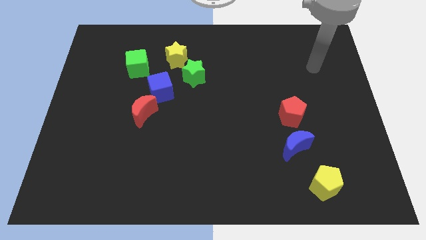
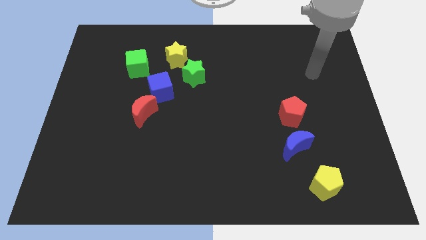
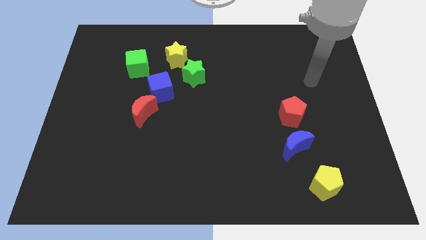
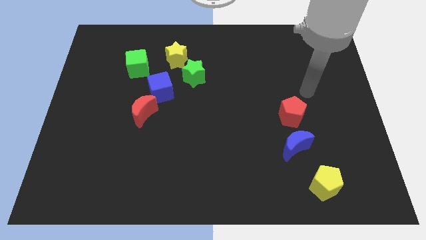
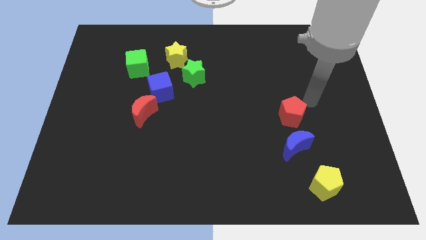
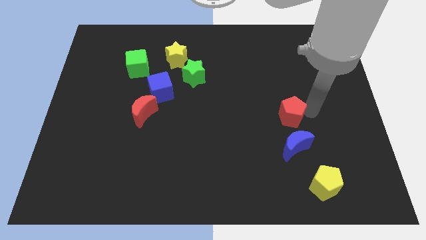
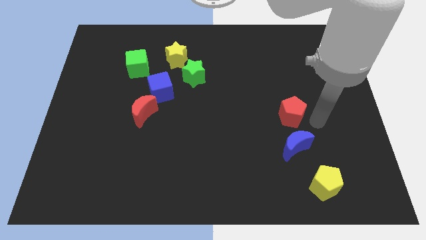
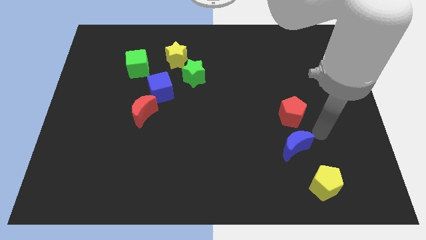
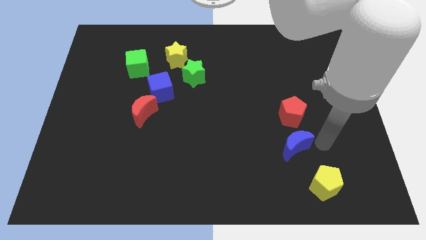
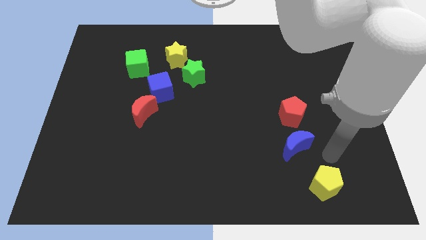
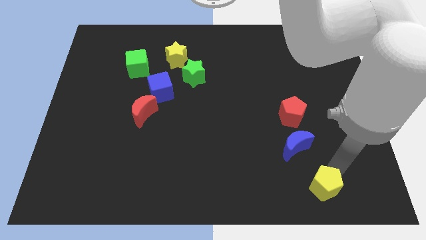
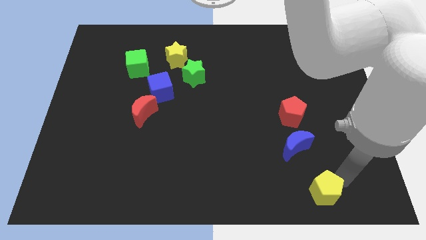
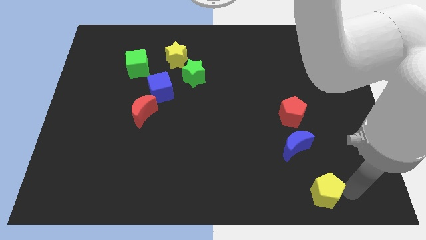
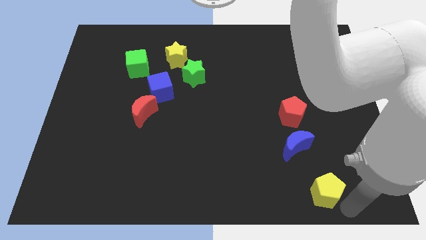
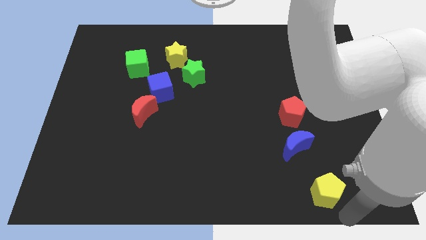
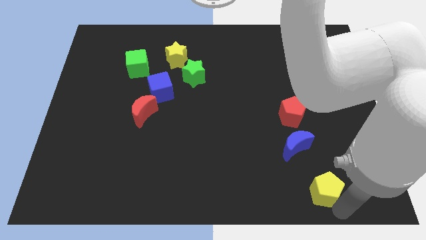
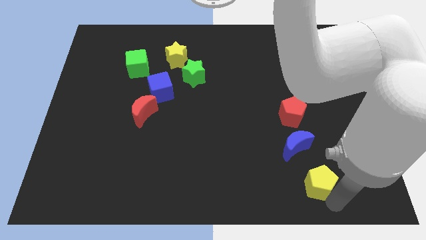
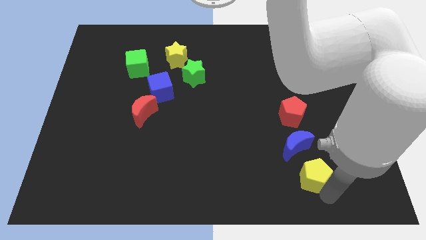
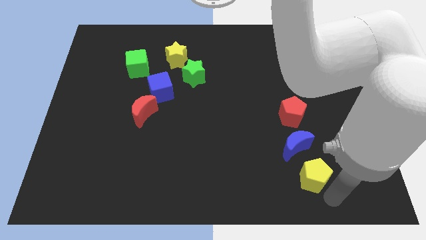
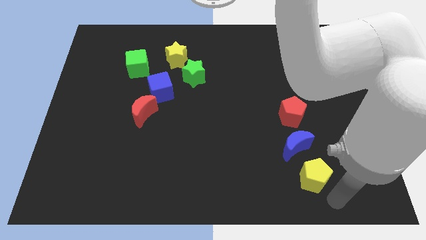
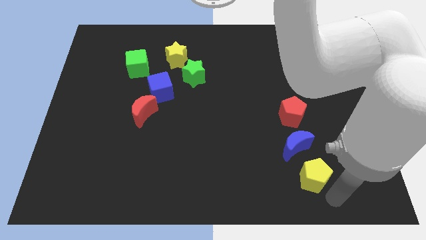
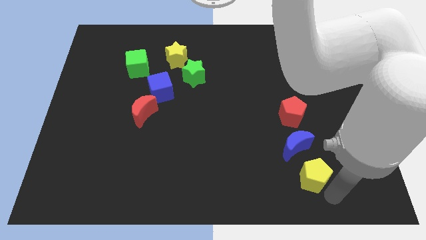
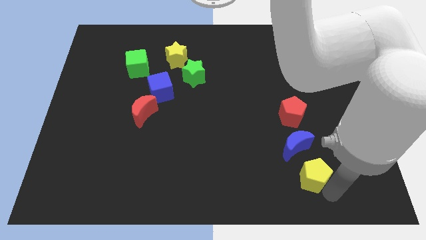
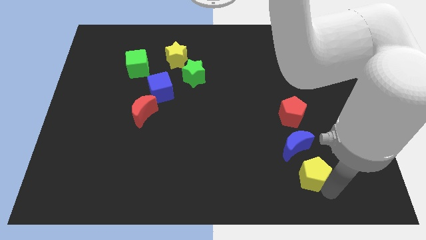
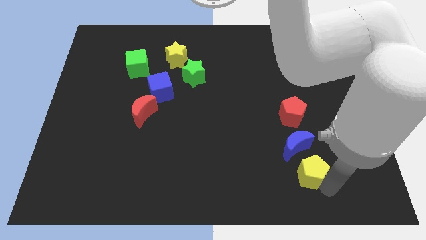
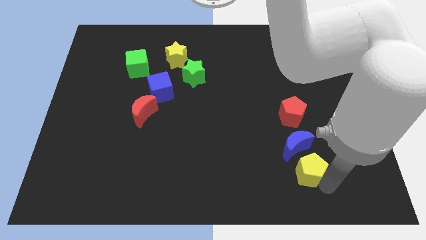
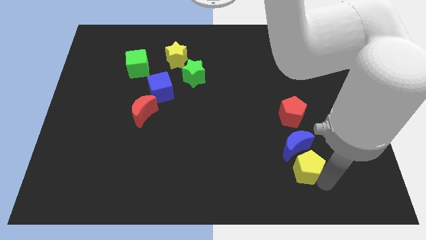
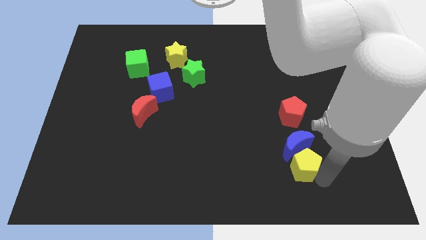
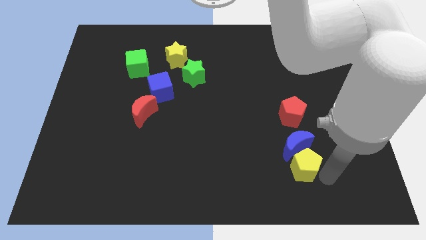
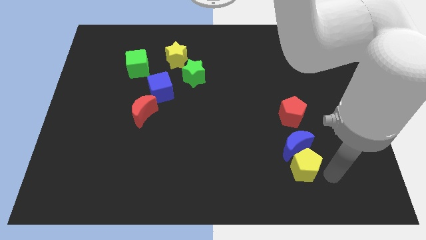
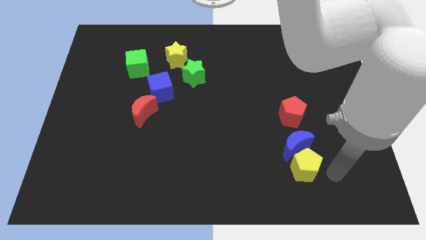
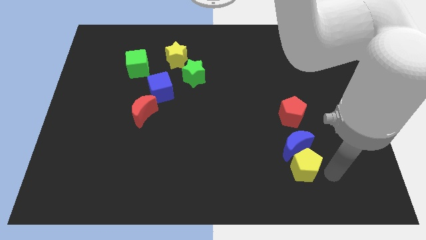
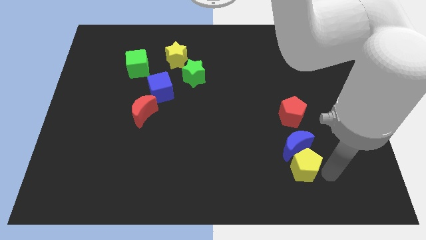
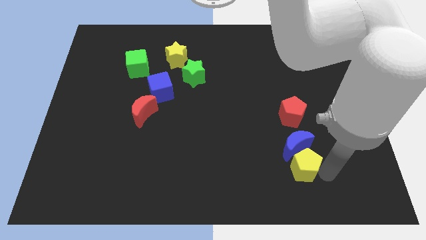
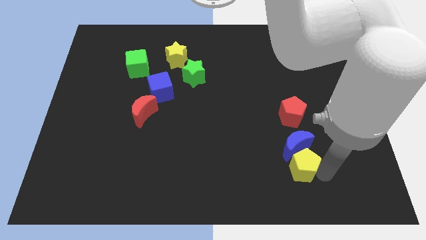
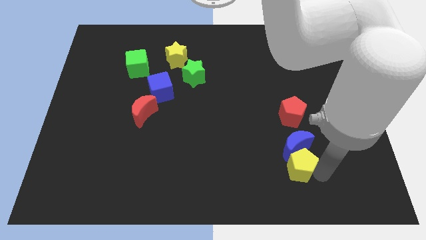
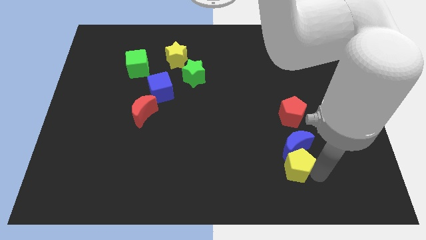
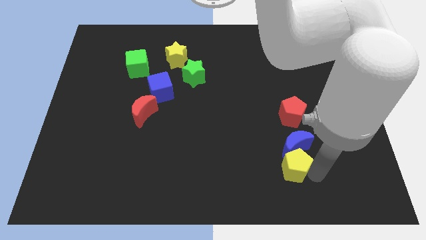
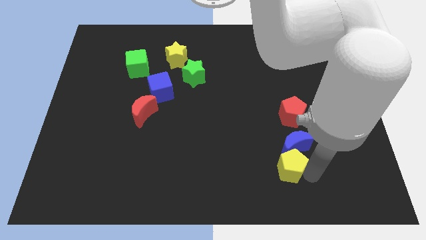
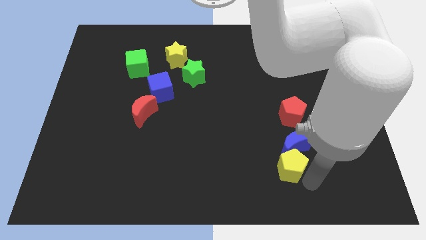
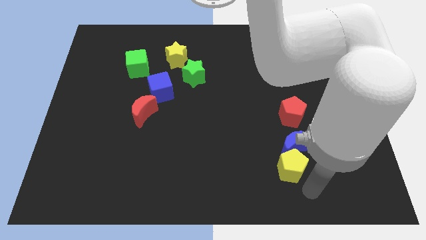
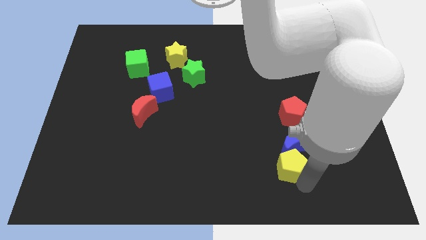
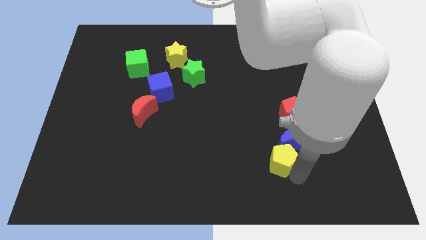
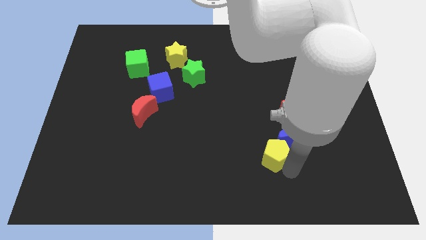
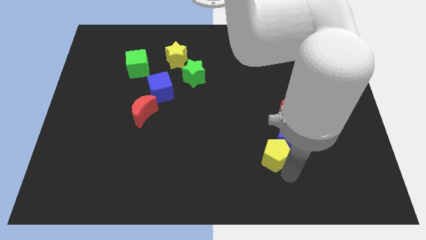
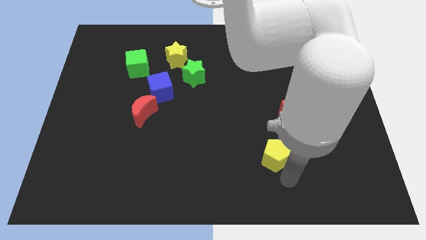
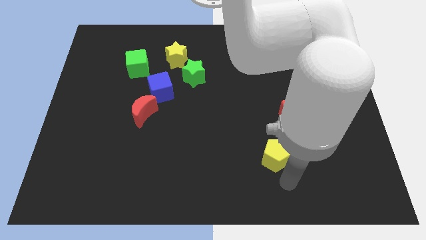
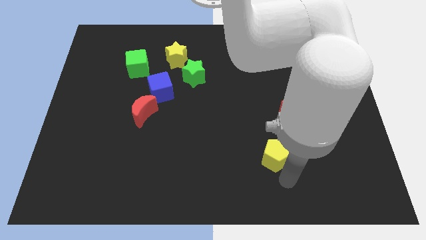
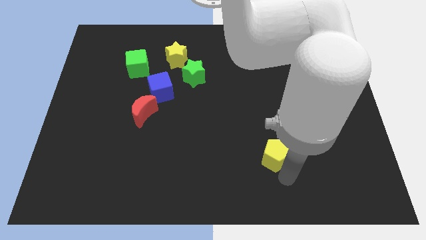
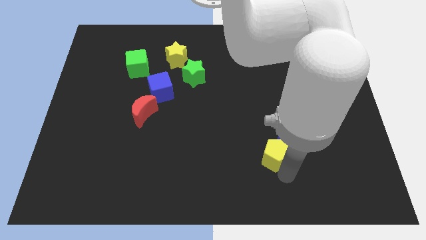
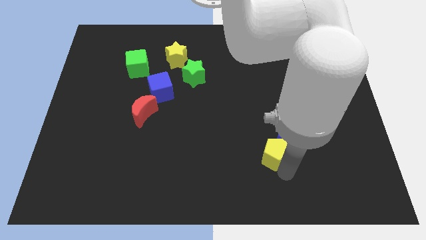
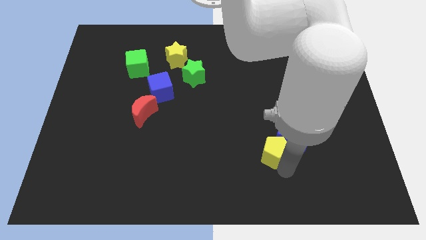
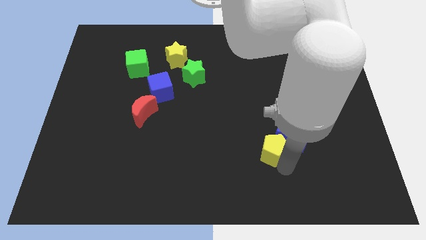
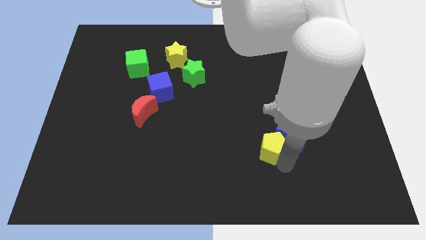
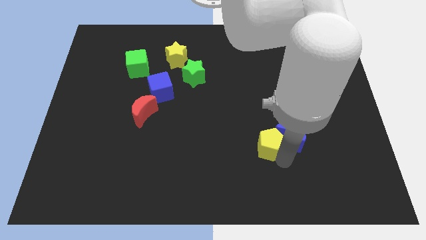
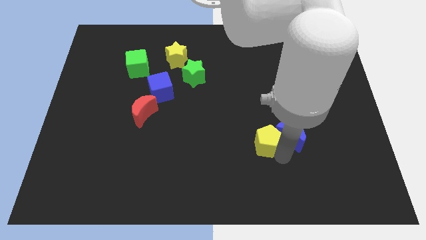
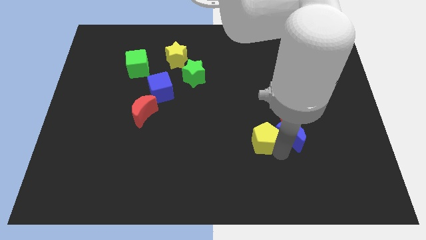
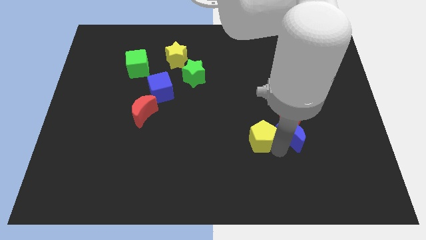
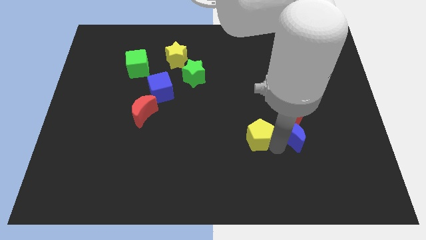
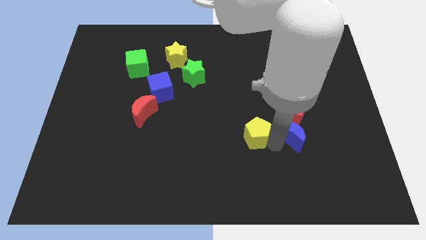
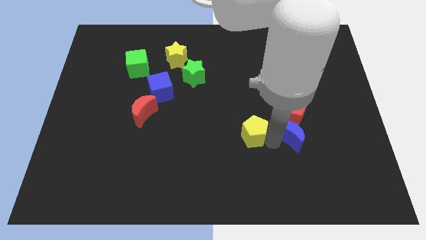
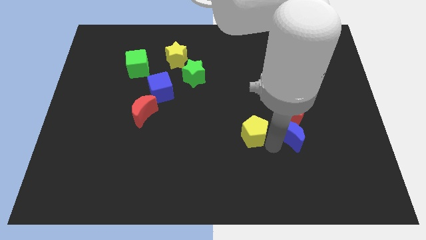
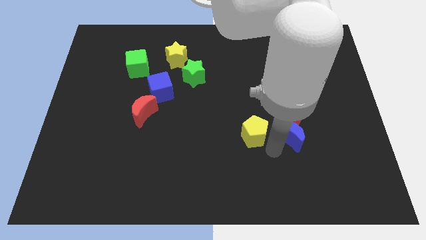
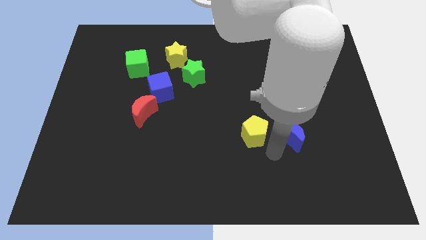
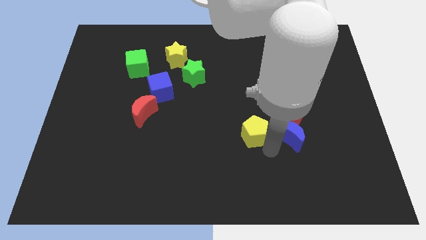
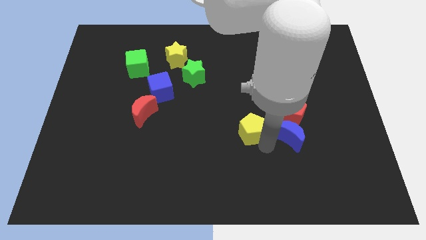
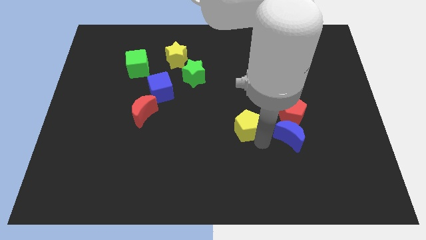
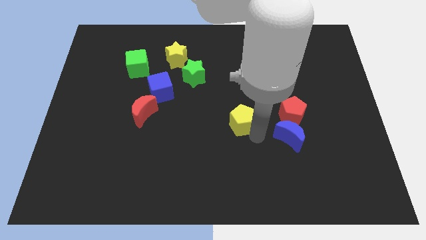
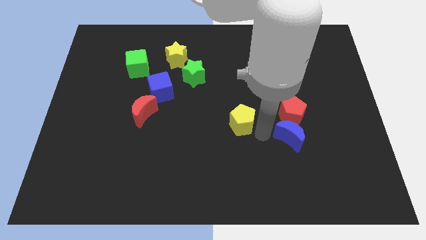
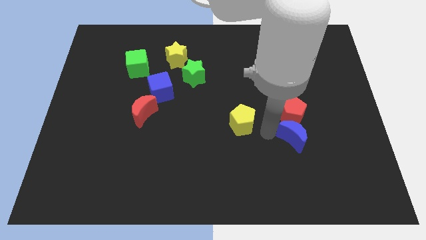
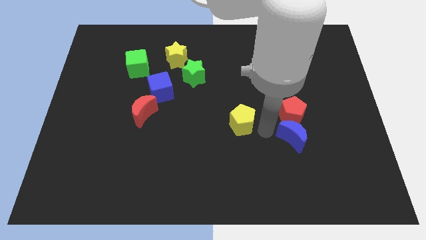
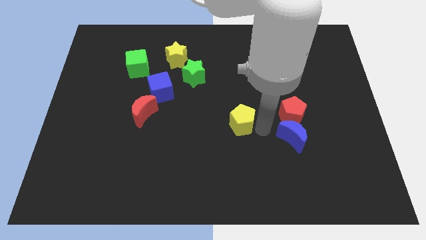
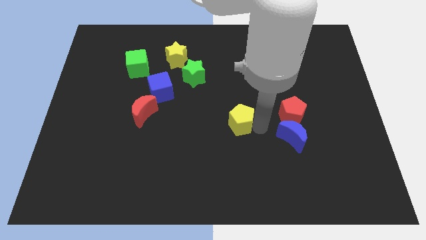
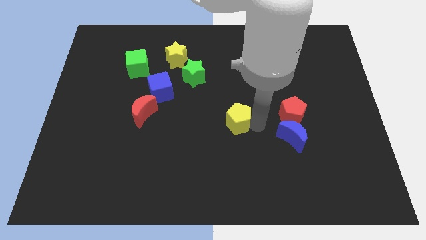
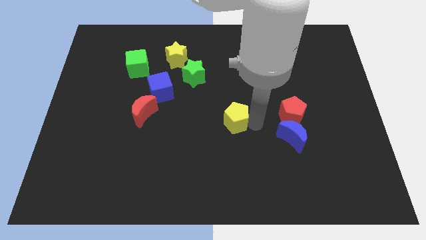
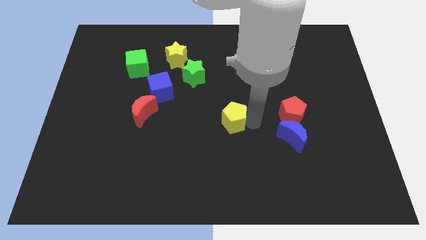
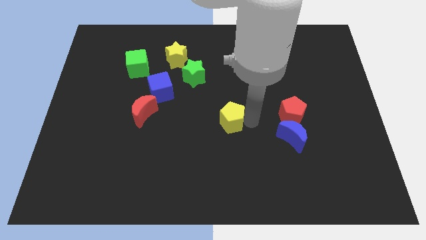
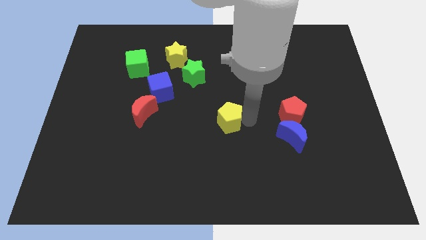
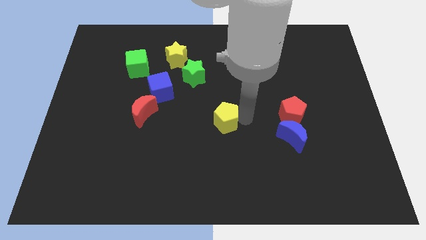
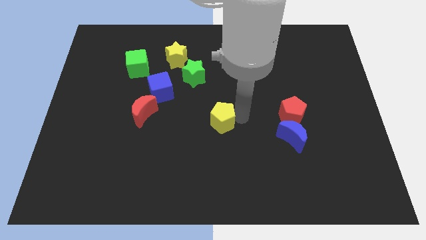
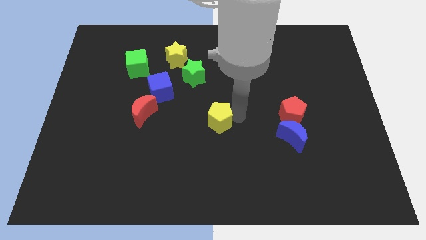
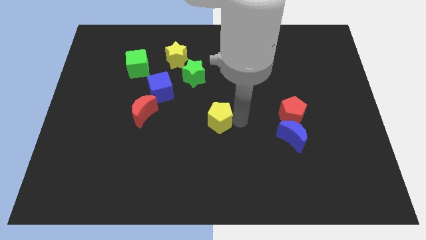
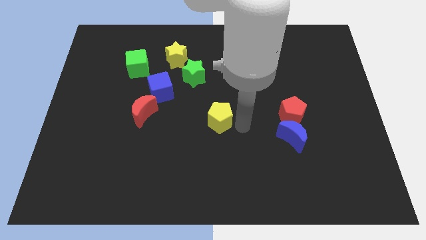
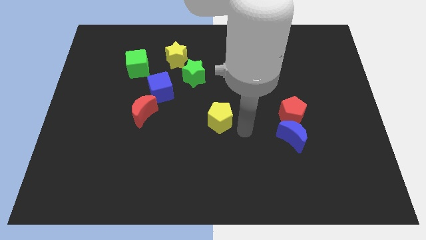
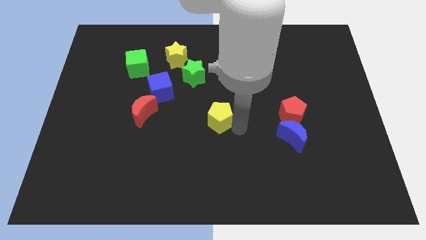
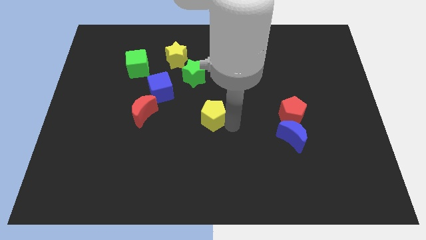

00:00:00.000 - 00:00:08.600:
put the yellow pentagon to the bottom of the green star
